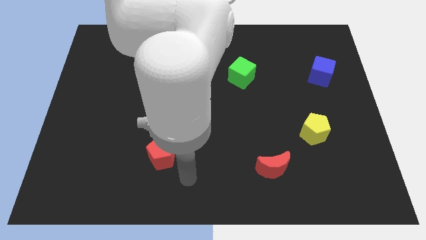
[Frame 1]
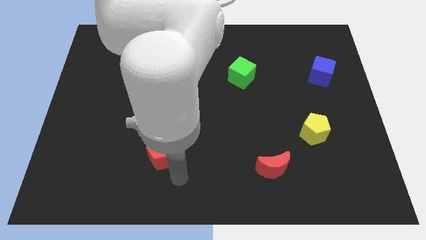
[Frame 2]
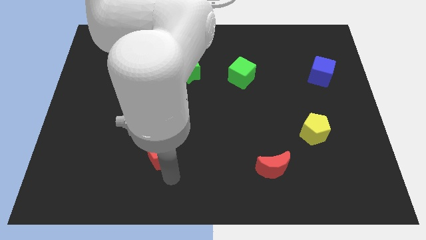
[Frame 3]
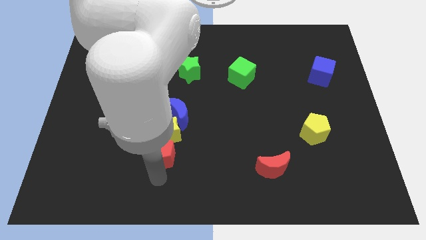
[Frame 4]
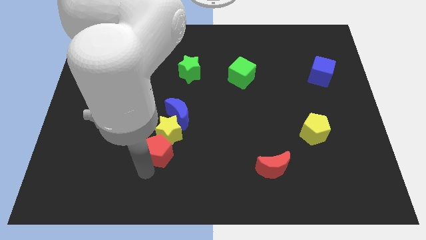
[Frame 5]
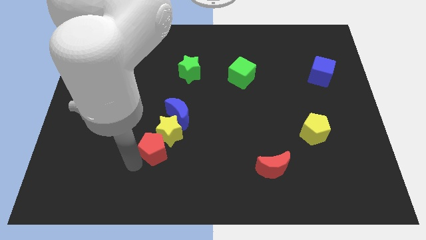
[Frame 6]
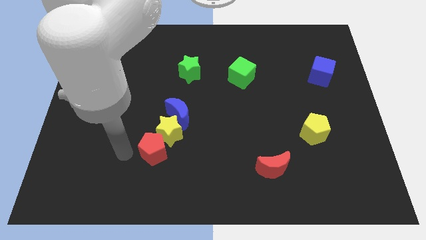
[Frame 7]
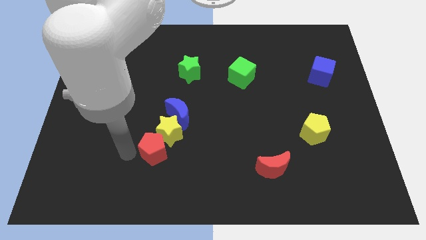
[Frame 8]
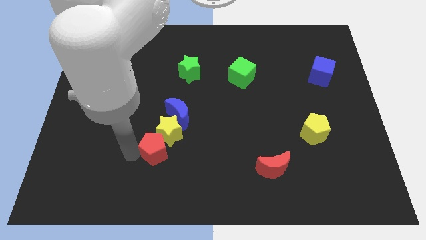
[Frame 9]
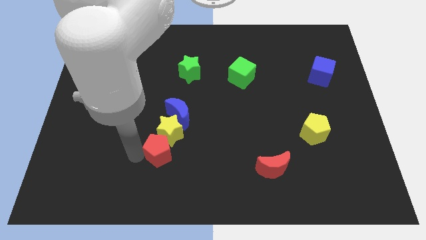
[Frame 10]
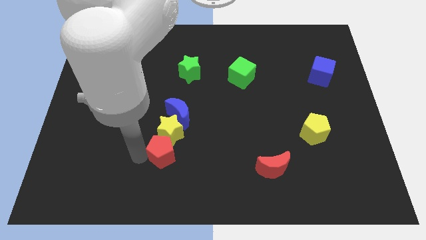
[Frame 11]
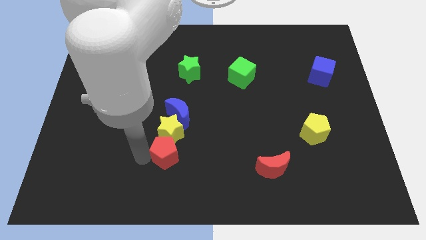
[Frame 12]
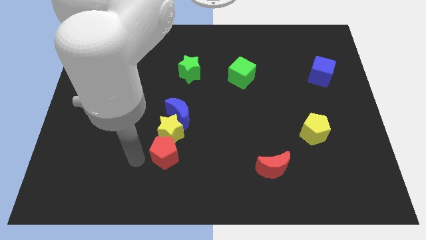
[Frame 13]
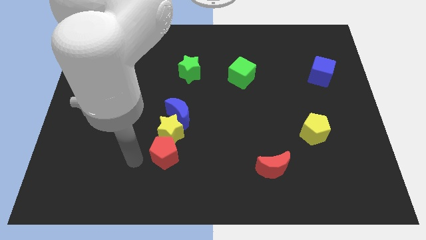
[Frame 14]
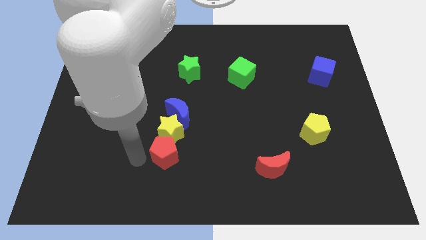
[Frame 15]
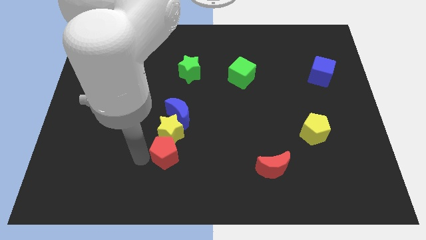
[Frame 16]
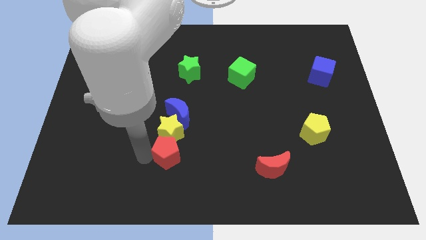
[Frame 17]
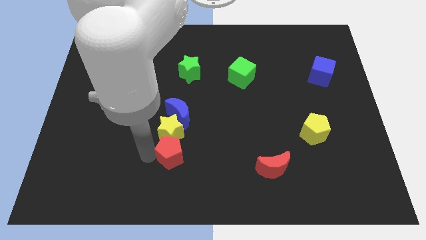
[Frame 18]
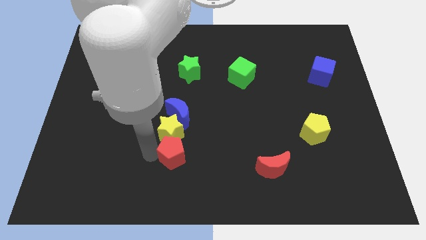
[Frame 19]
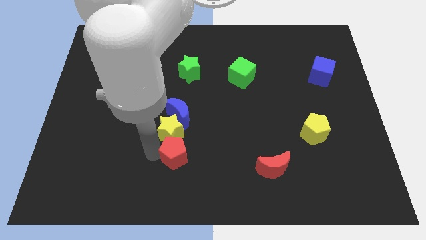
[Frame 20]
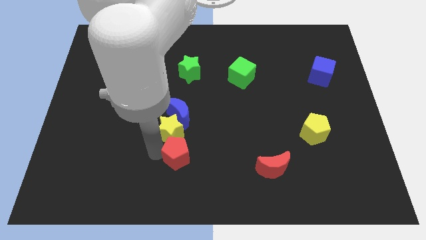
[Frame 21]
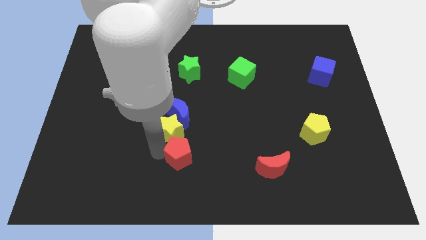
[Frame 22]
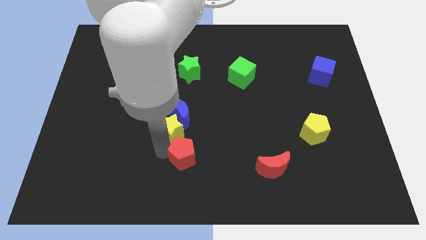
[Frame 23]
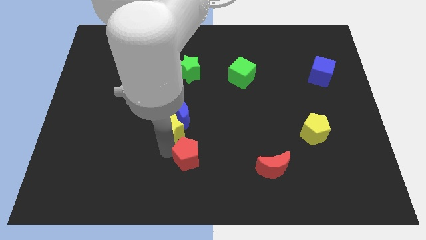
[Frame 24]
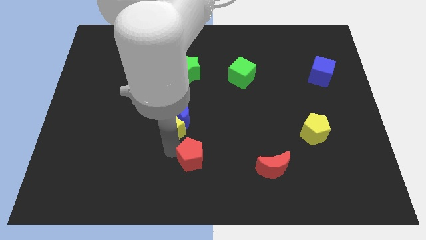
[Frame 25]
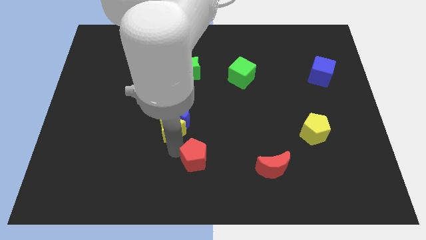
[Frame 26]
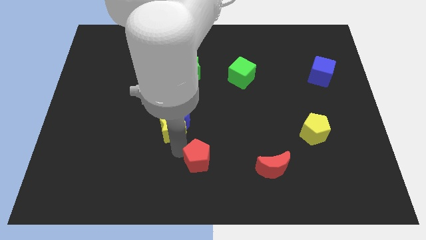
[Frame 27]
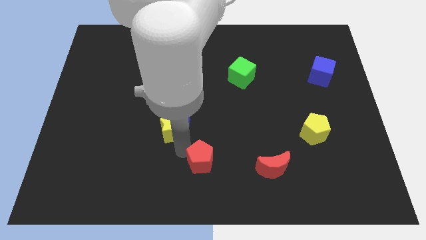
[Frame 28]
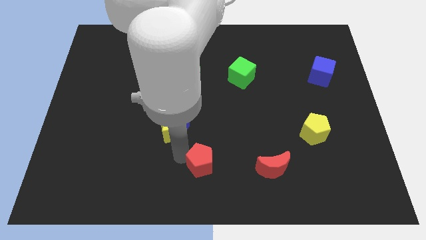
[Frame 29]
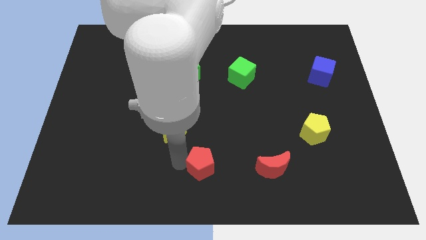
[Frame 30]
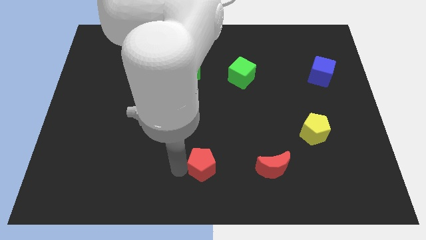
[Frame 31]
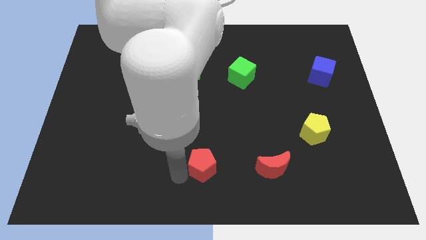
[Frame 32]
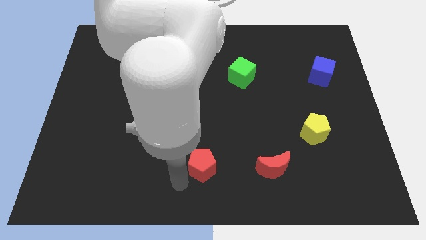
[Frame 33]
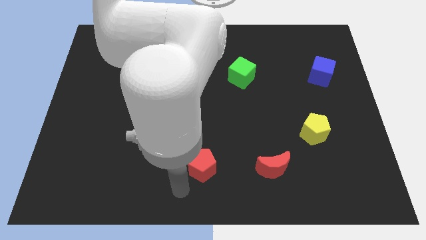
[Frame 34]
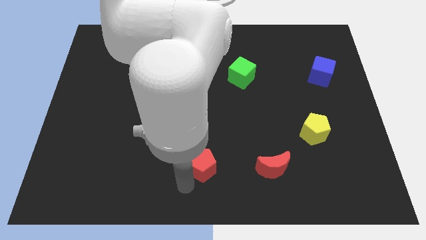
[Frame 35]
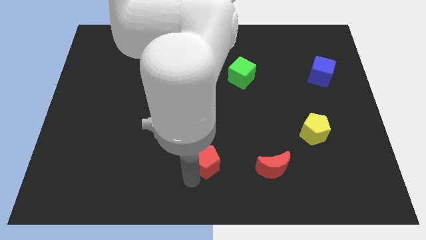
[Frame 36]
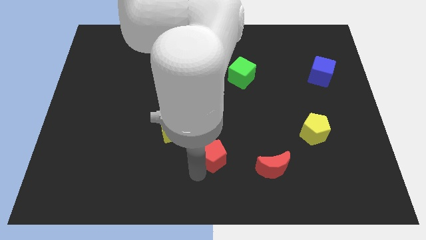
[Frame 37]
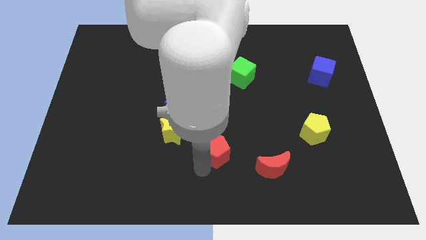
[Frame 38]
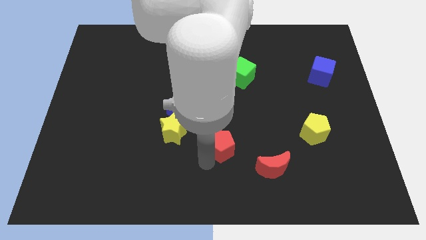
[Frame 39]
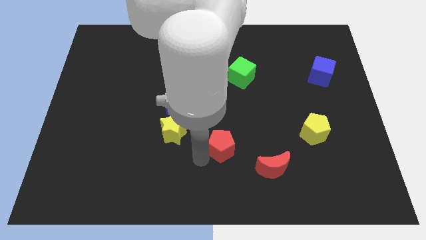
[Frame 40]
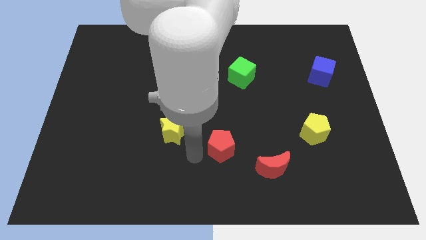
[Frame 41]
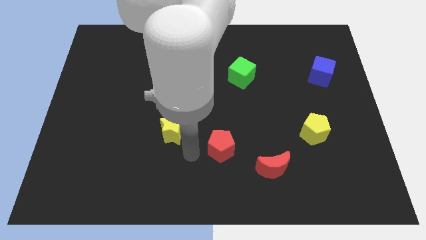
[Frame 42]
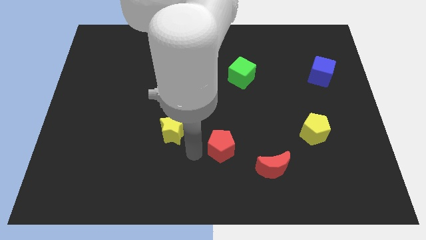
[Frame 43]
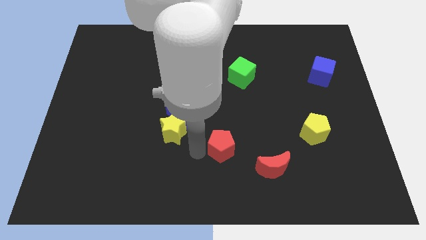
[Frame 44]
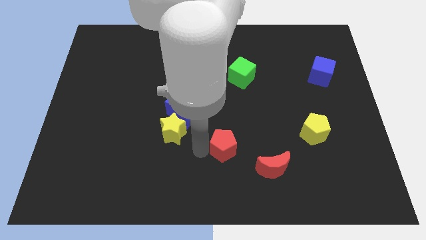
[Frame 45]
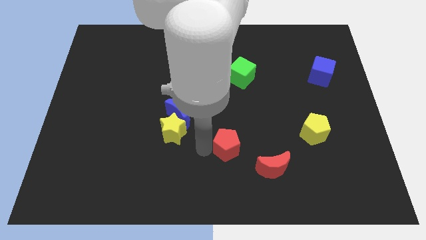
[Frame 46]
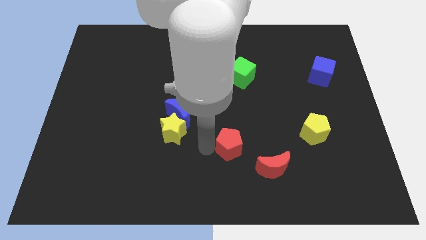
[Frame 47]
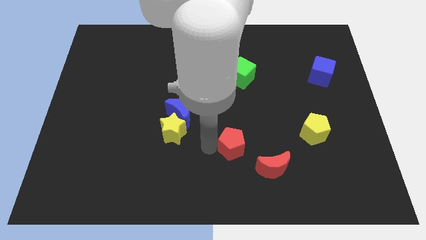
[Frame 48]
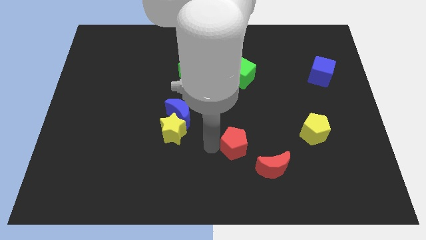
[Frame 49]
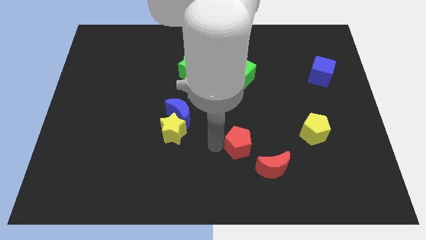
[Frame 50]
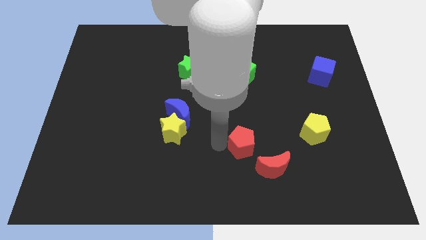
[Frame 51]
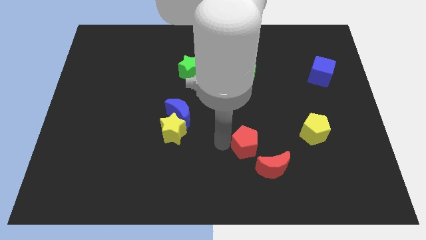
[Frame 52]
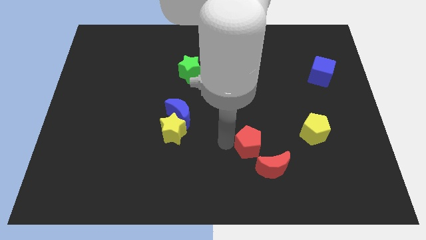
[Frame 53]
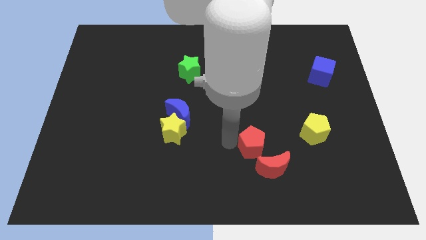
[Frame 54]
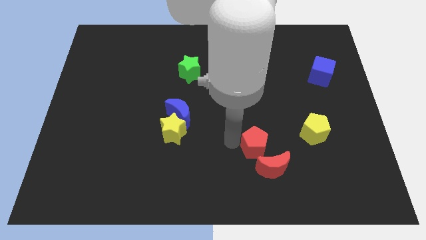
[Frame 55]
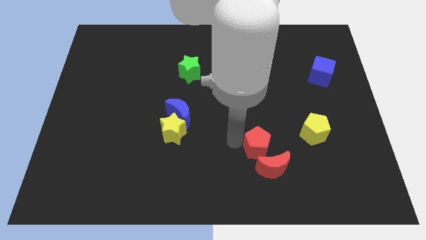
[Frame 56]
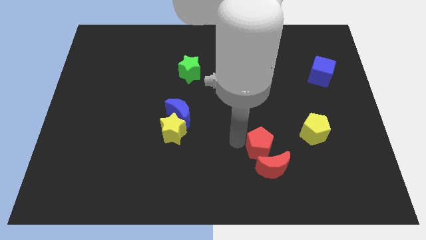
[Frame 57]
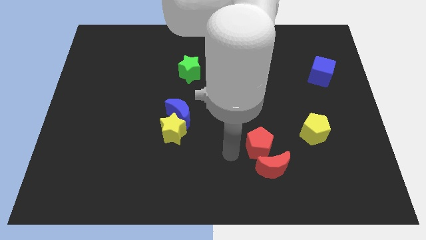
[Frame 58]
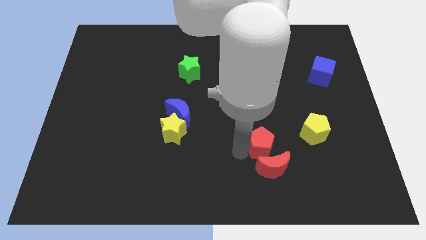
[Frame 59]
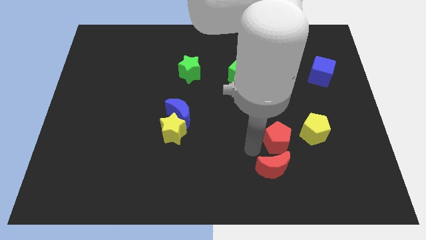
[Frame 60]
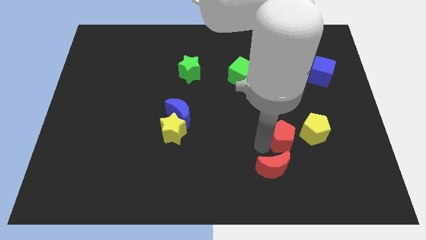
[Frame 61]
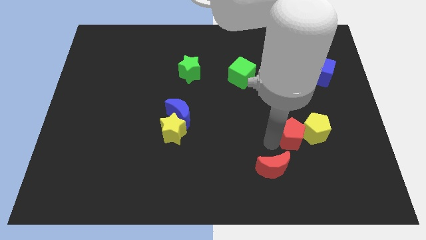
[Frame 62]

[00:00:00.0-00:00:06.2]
push the red pentagon next to the yellow pentagon

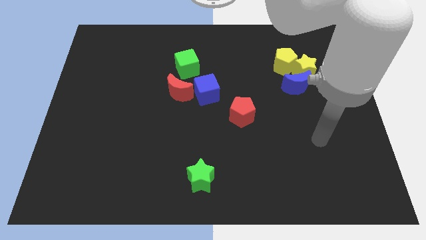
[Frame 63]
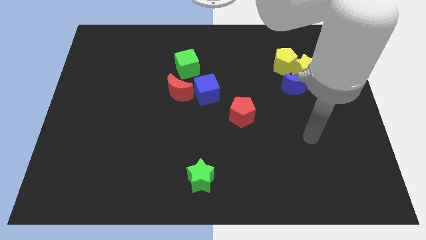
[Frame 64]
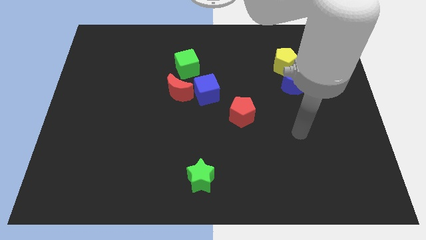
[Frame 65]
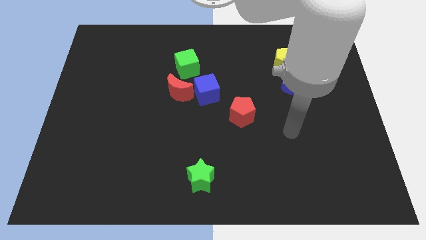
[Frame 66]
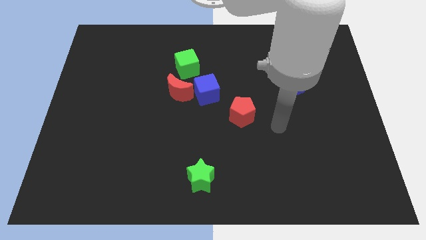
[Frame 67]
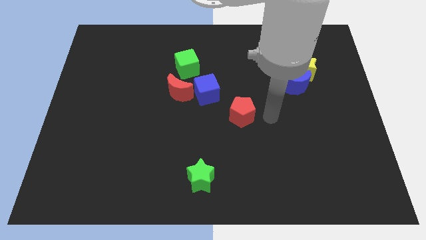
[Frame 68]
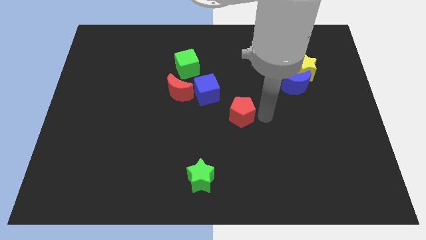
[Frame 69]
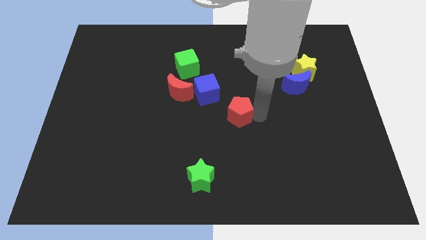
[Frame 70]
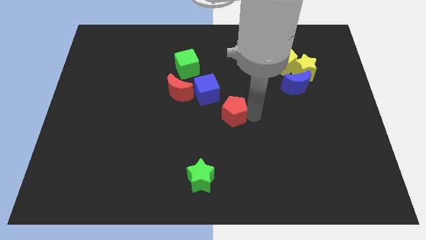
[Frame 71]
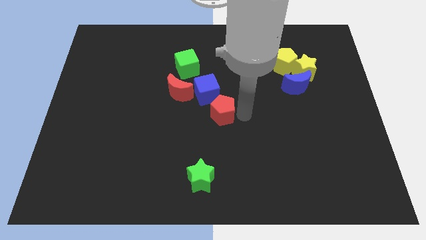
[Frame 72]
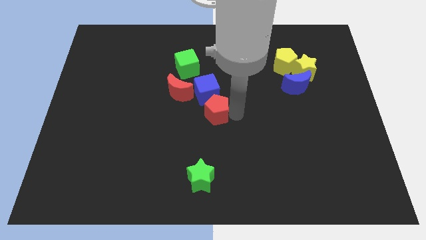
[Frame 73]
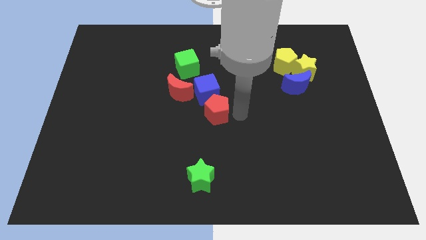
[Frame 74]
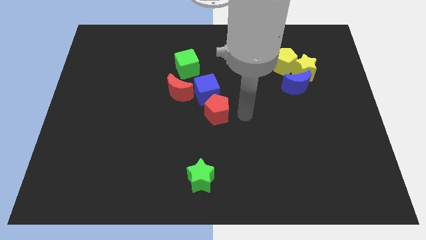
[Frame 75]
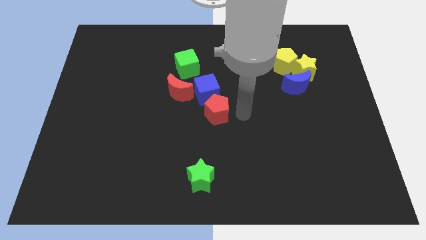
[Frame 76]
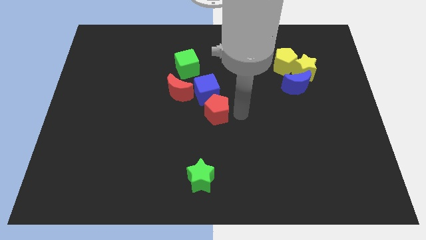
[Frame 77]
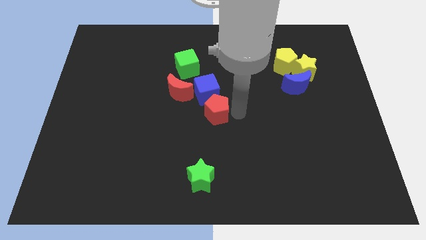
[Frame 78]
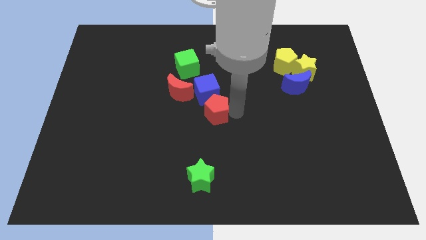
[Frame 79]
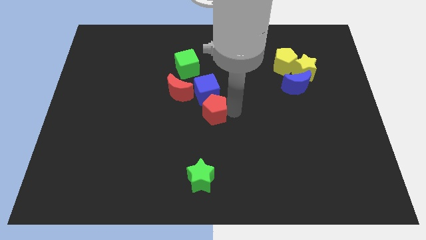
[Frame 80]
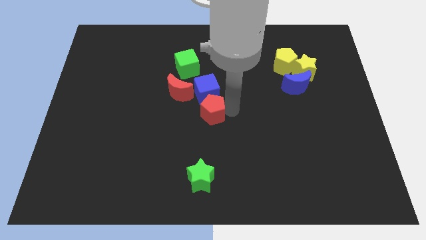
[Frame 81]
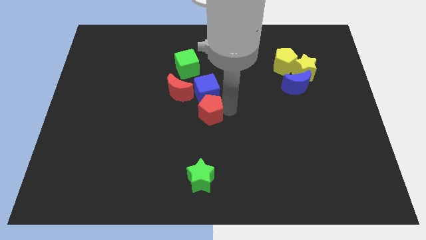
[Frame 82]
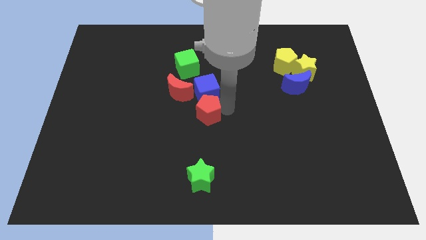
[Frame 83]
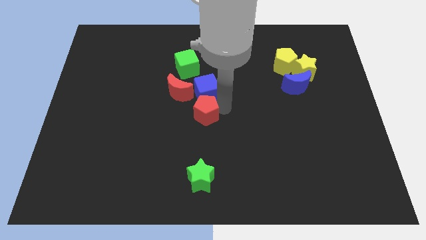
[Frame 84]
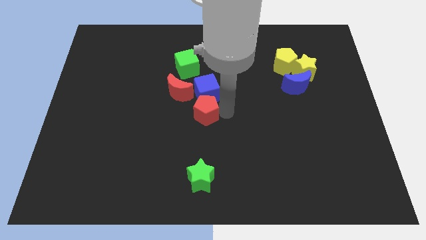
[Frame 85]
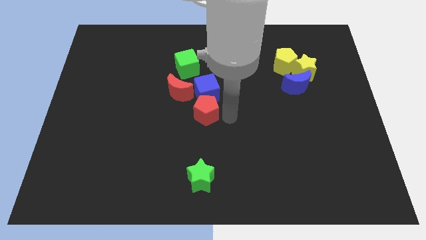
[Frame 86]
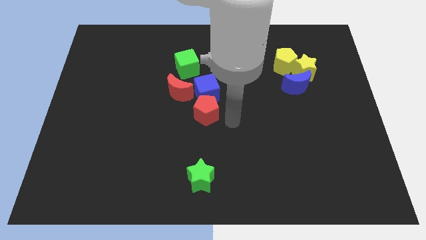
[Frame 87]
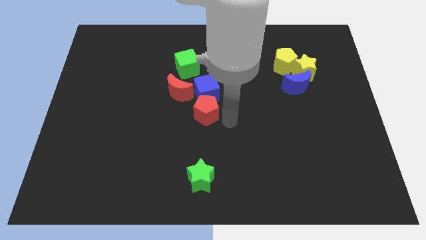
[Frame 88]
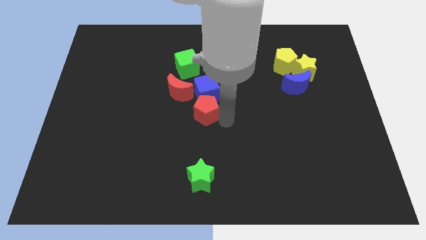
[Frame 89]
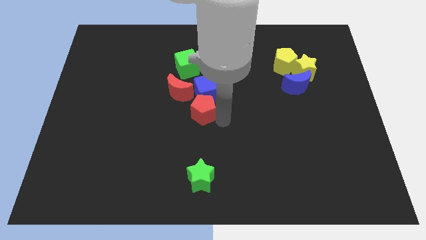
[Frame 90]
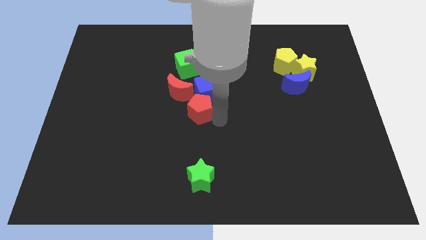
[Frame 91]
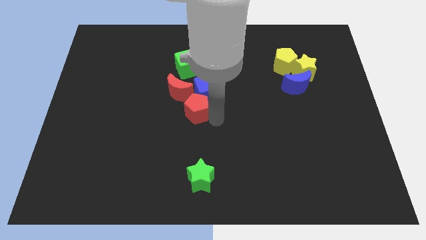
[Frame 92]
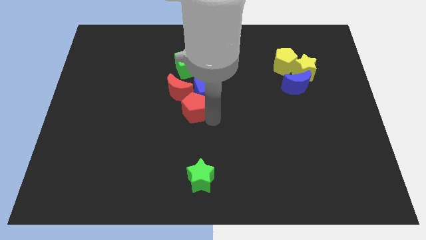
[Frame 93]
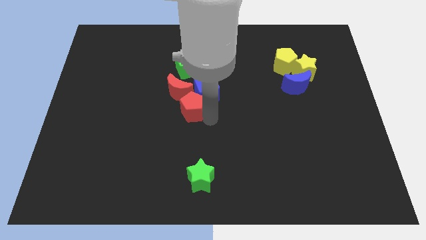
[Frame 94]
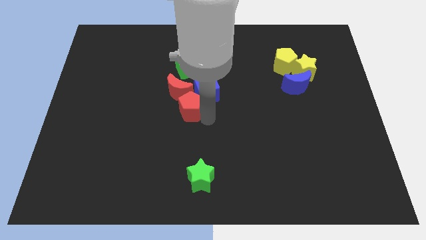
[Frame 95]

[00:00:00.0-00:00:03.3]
slide the red pentagon towards the red moon
